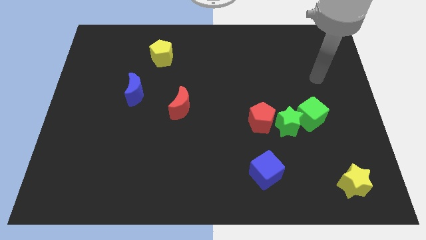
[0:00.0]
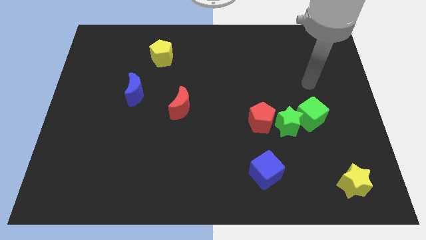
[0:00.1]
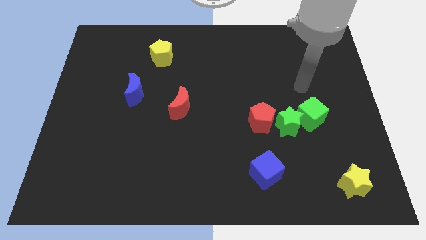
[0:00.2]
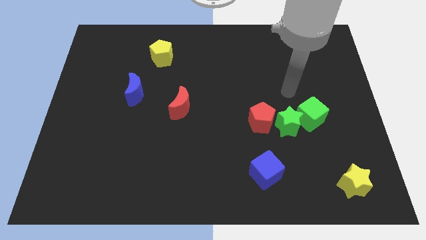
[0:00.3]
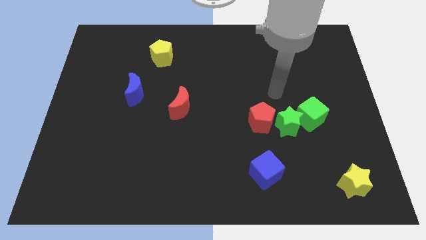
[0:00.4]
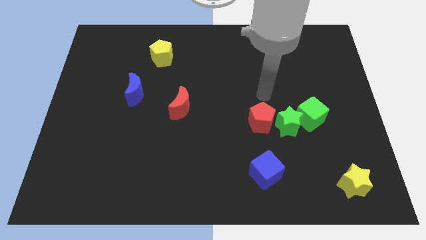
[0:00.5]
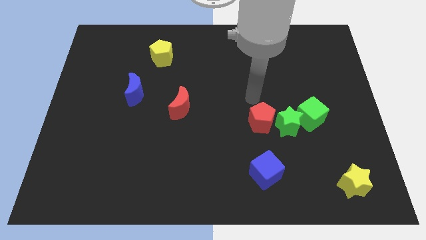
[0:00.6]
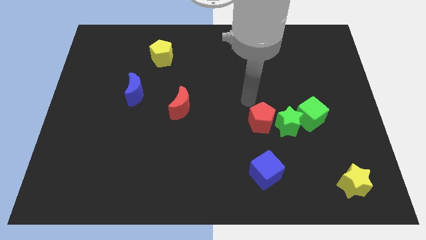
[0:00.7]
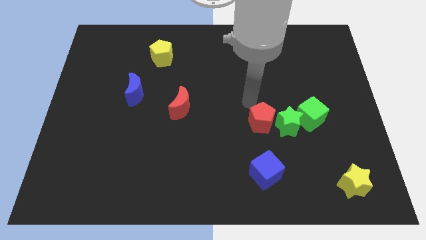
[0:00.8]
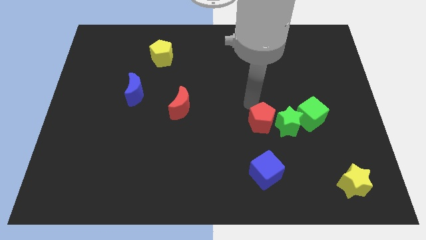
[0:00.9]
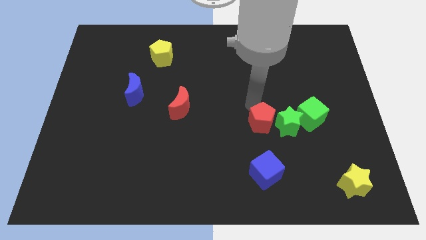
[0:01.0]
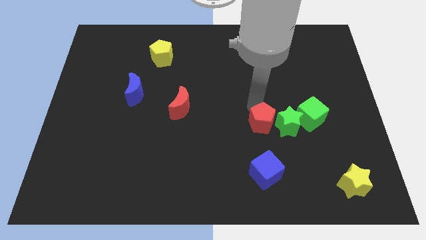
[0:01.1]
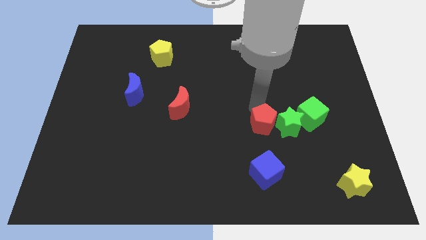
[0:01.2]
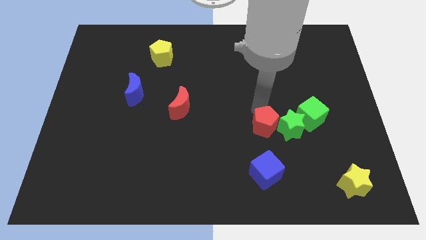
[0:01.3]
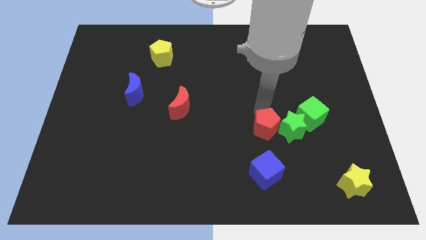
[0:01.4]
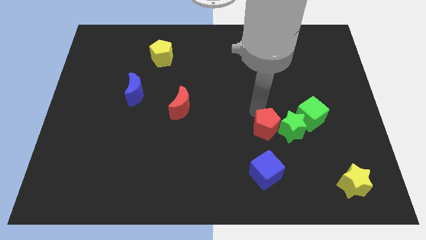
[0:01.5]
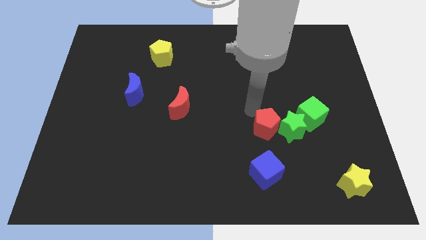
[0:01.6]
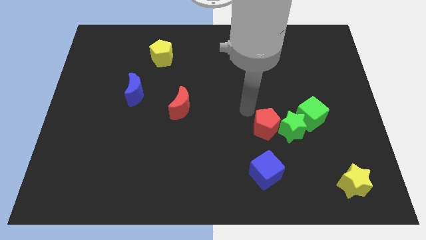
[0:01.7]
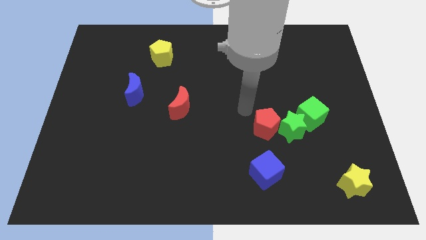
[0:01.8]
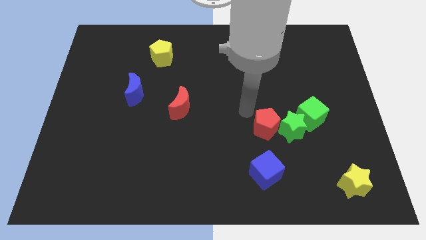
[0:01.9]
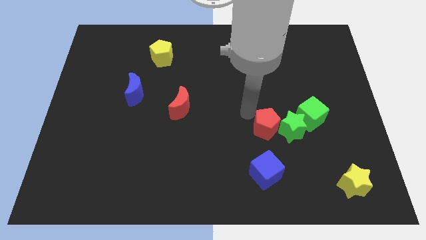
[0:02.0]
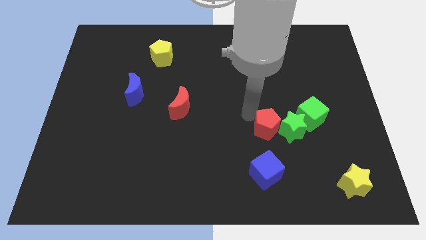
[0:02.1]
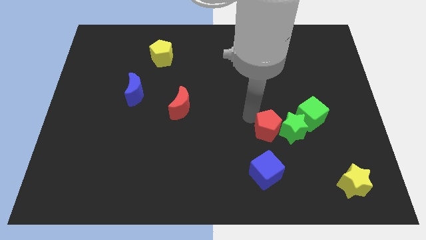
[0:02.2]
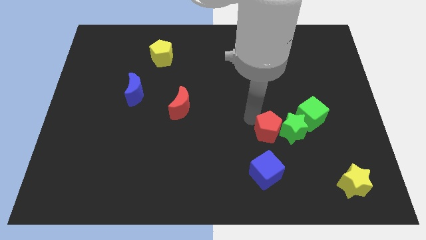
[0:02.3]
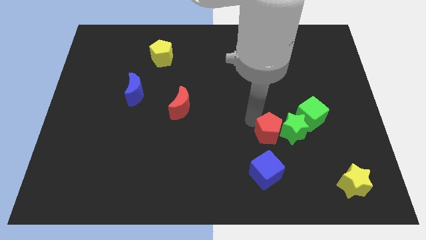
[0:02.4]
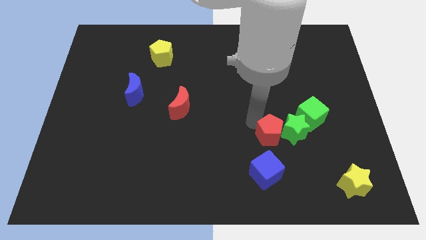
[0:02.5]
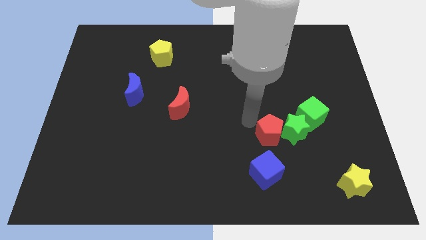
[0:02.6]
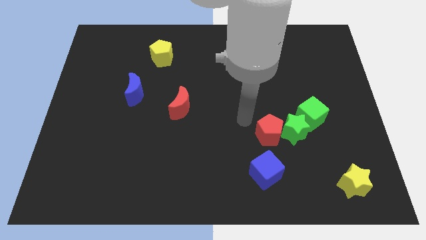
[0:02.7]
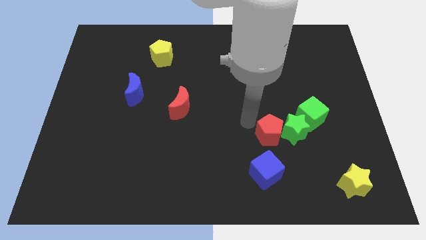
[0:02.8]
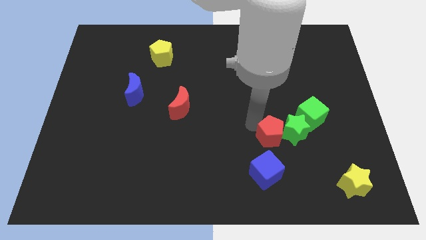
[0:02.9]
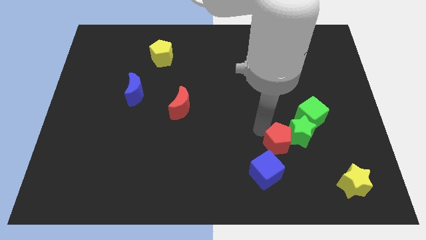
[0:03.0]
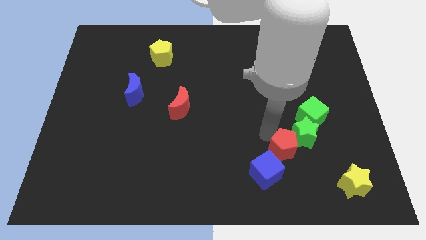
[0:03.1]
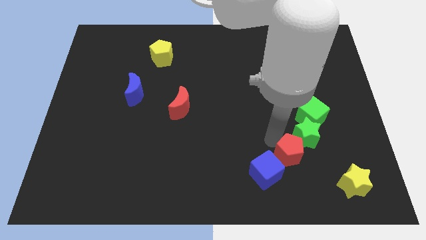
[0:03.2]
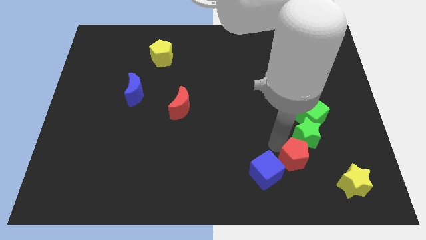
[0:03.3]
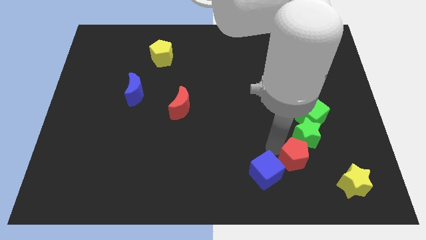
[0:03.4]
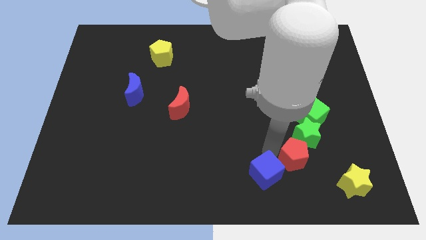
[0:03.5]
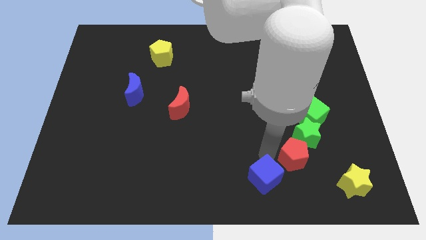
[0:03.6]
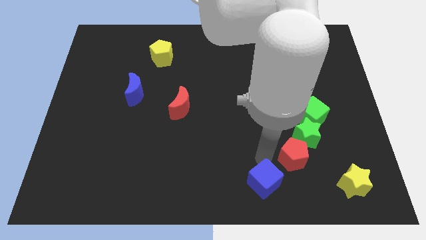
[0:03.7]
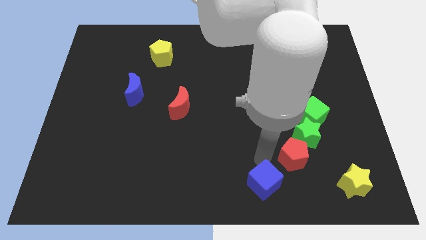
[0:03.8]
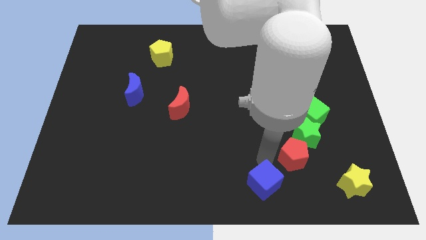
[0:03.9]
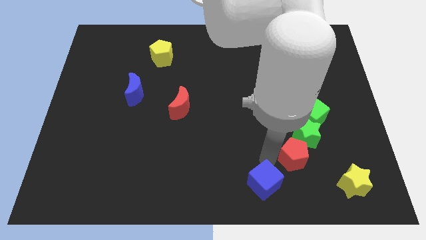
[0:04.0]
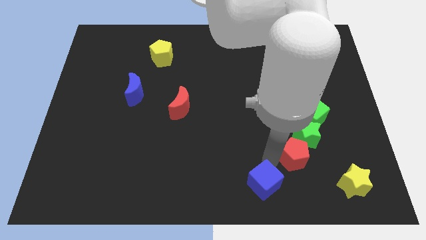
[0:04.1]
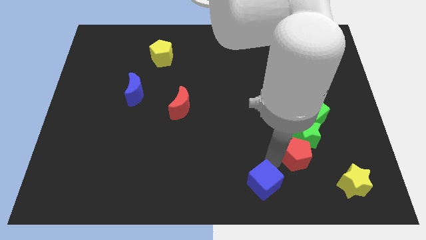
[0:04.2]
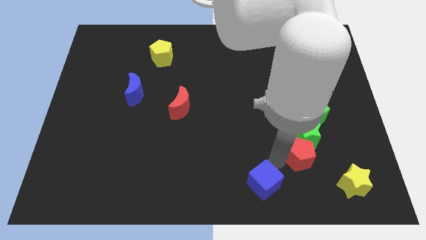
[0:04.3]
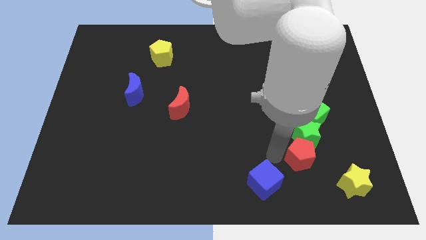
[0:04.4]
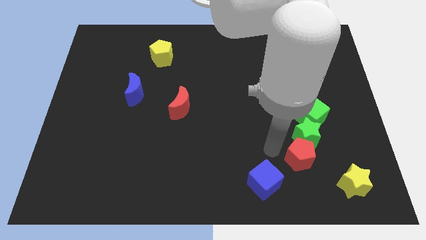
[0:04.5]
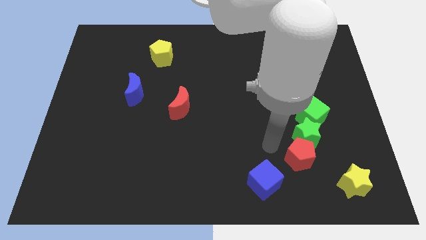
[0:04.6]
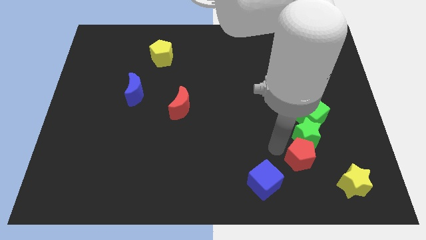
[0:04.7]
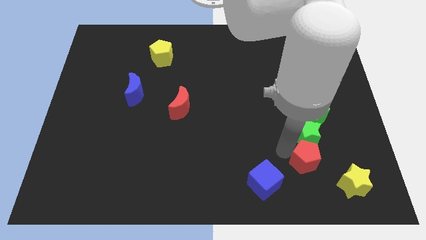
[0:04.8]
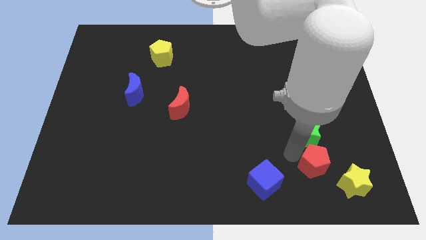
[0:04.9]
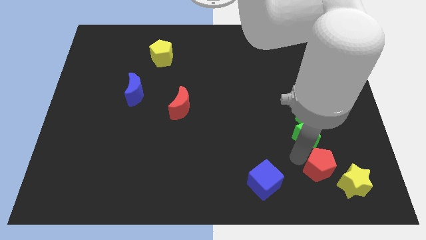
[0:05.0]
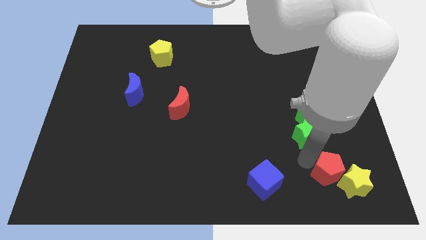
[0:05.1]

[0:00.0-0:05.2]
move the red pentagon next to the yellow star

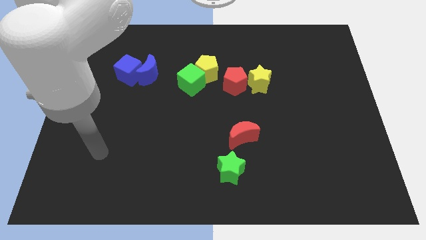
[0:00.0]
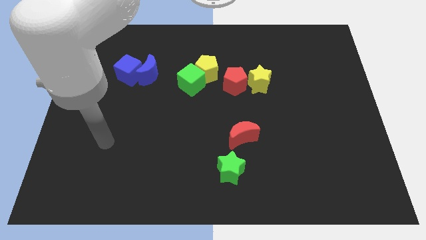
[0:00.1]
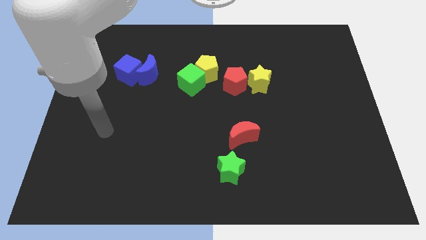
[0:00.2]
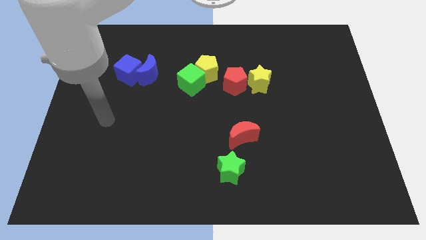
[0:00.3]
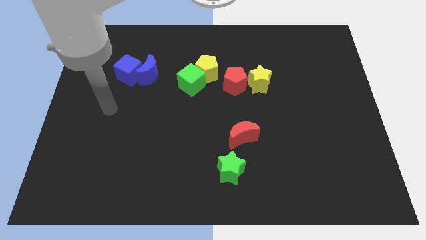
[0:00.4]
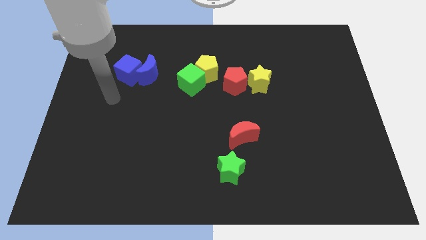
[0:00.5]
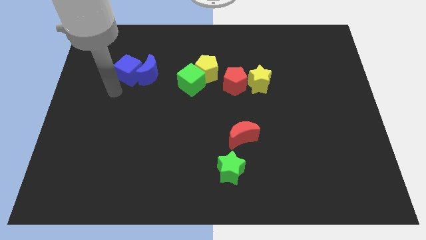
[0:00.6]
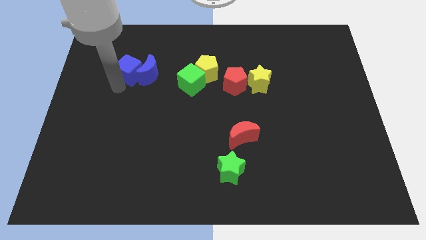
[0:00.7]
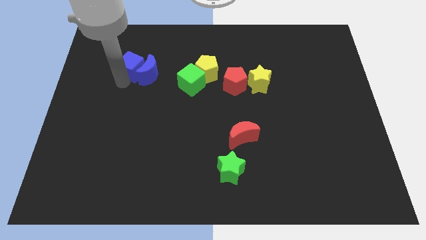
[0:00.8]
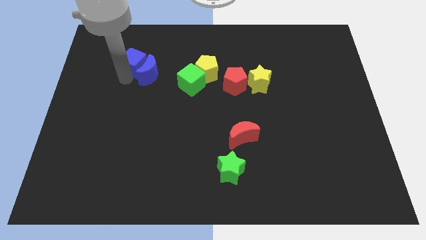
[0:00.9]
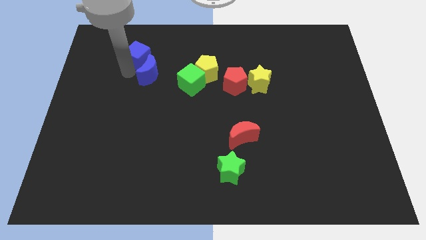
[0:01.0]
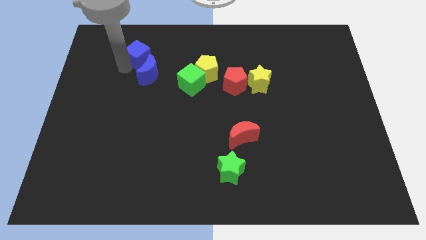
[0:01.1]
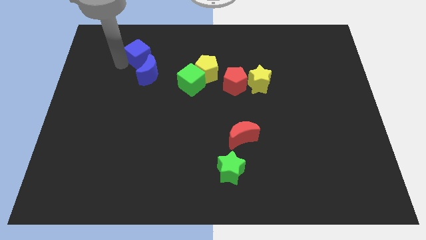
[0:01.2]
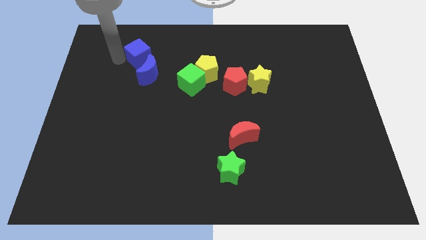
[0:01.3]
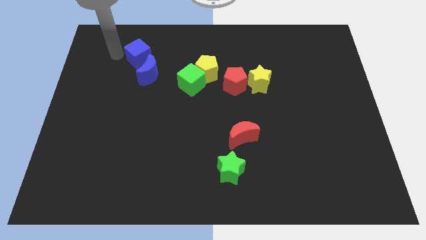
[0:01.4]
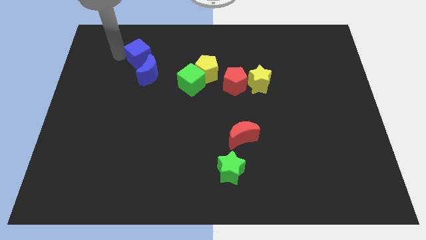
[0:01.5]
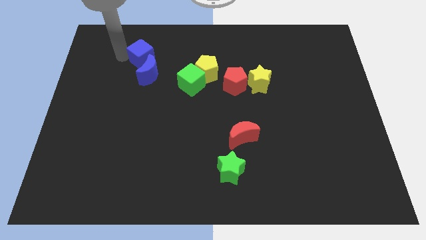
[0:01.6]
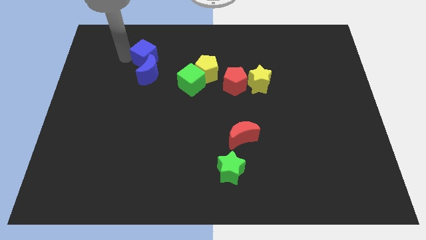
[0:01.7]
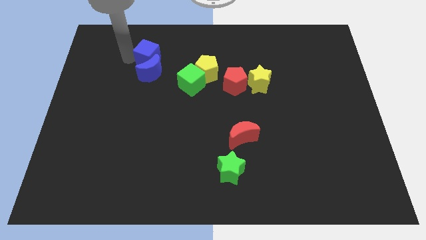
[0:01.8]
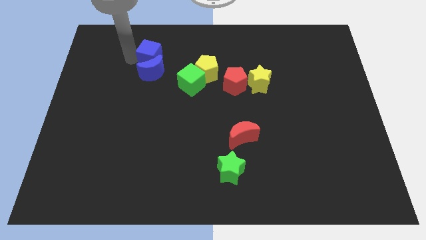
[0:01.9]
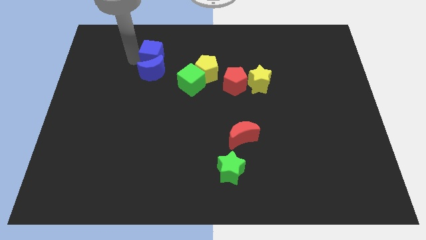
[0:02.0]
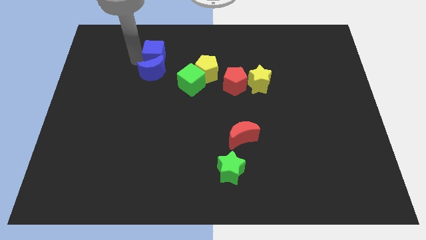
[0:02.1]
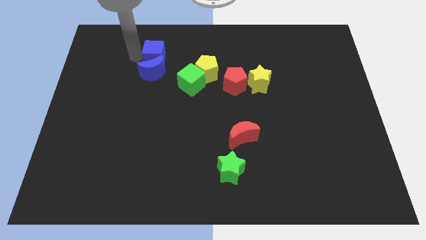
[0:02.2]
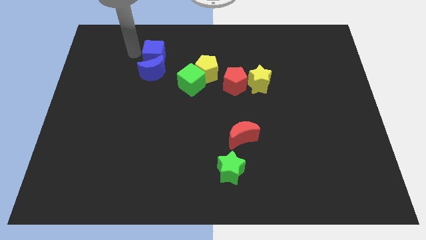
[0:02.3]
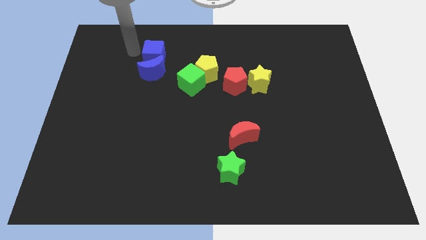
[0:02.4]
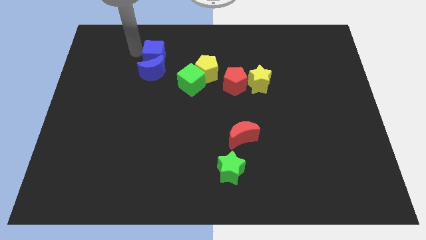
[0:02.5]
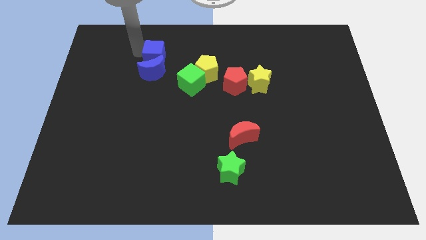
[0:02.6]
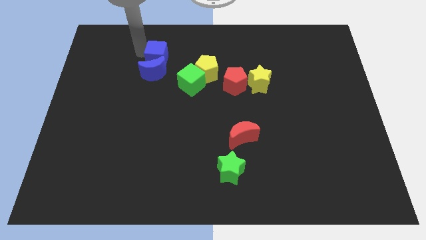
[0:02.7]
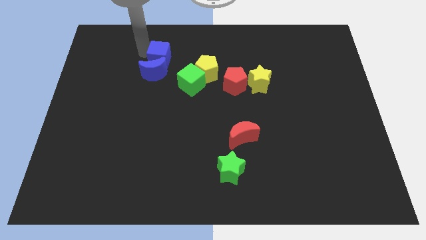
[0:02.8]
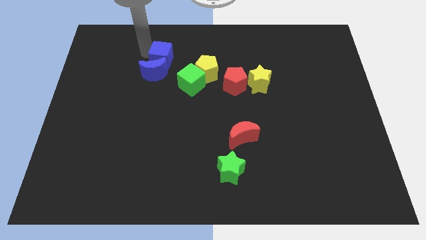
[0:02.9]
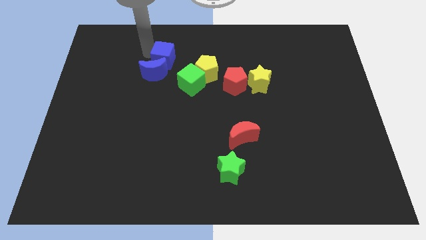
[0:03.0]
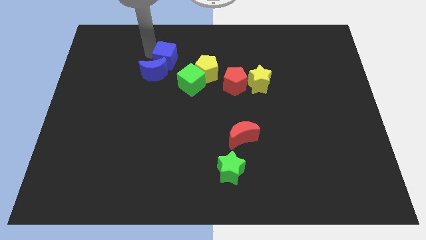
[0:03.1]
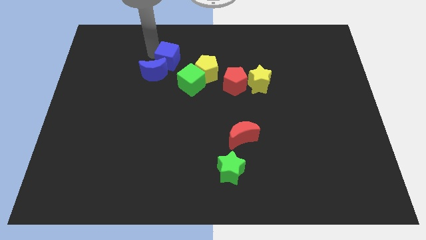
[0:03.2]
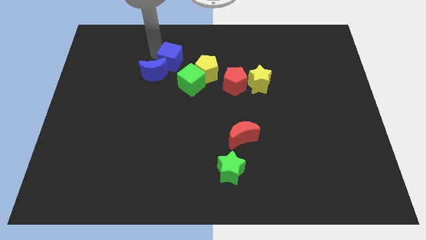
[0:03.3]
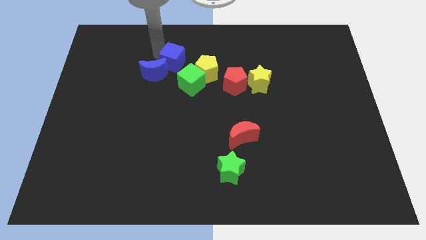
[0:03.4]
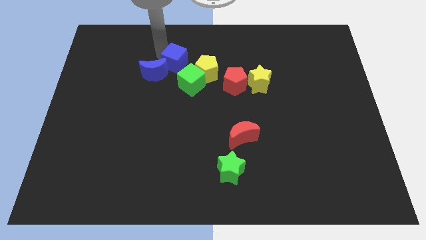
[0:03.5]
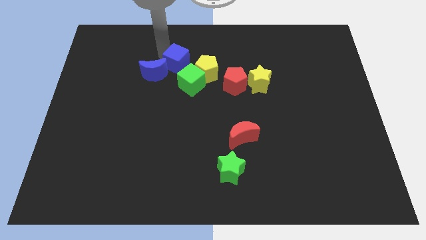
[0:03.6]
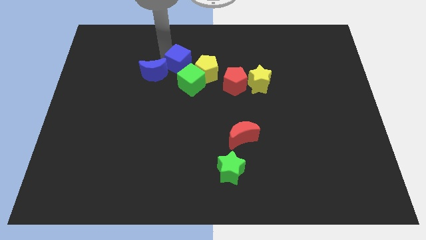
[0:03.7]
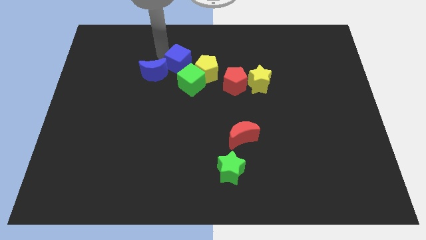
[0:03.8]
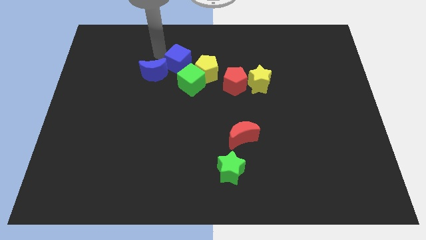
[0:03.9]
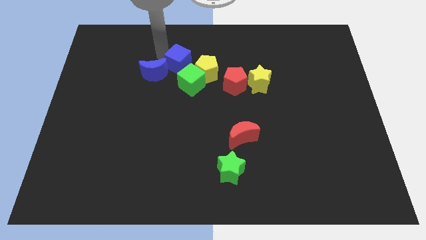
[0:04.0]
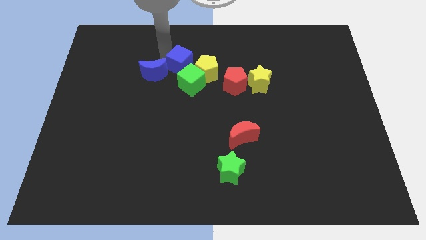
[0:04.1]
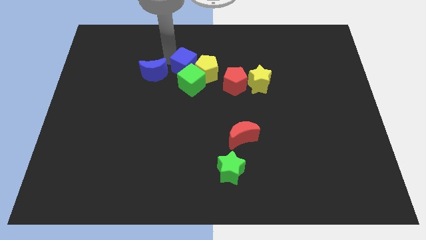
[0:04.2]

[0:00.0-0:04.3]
put the blue cube next to the yellow pentagon
